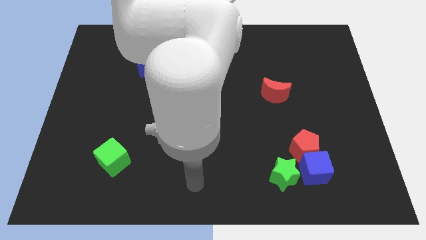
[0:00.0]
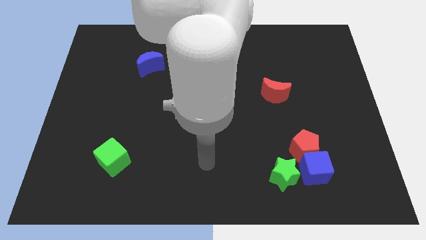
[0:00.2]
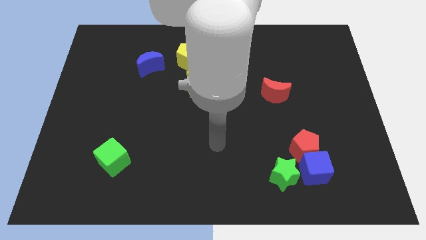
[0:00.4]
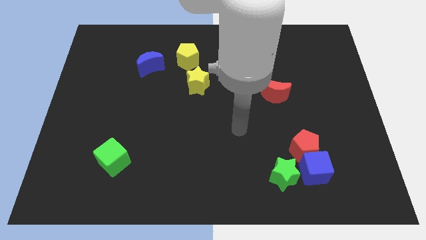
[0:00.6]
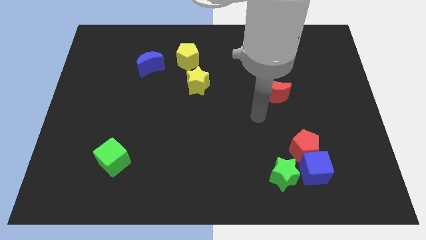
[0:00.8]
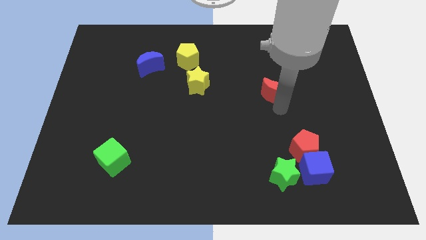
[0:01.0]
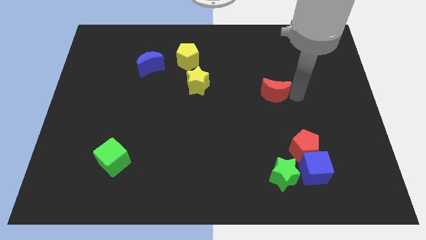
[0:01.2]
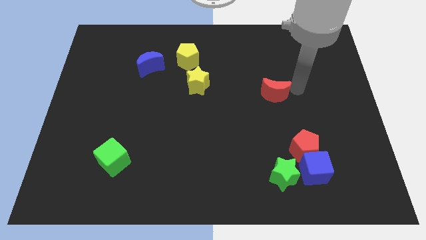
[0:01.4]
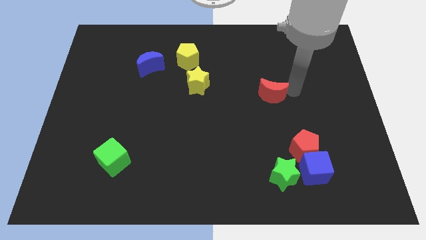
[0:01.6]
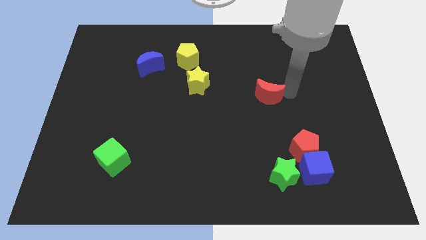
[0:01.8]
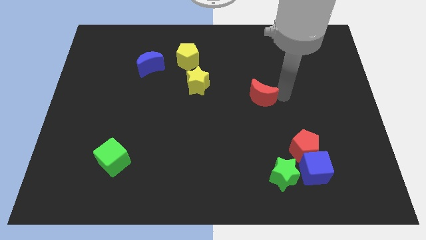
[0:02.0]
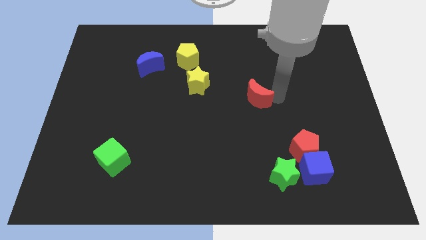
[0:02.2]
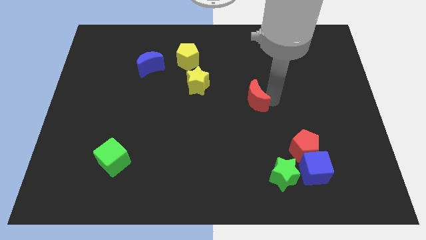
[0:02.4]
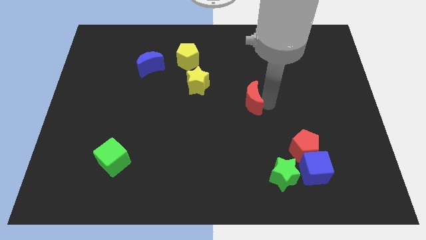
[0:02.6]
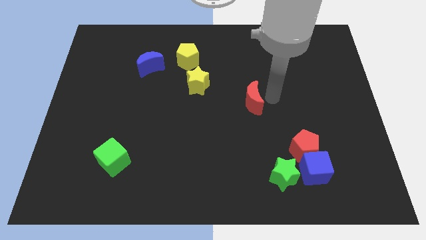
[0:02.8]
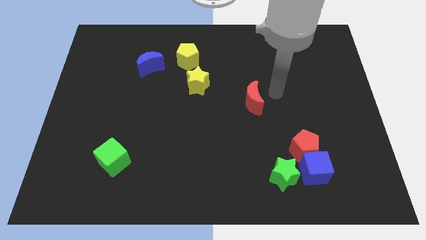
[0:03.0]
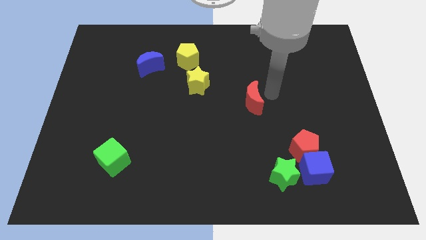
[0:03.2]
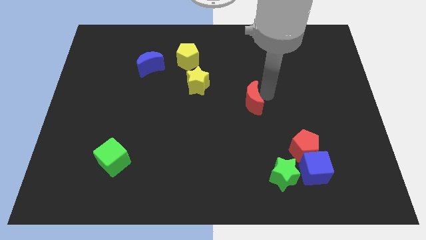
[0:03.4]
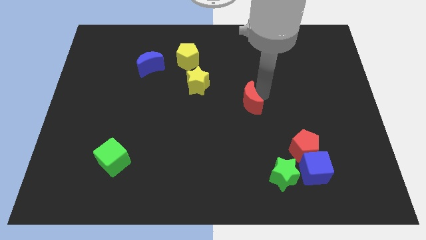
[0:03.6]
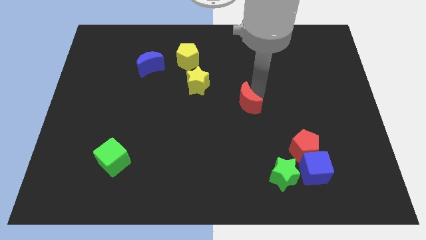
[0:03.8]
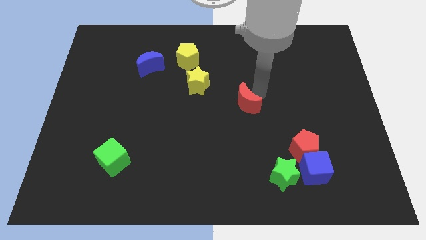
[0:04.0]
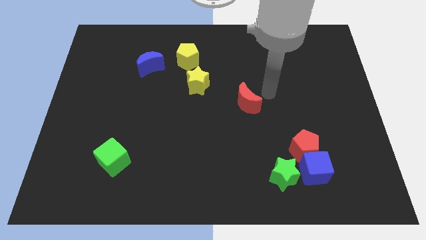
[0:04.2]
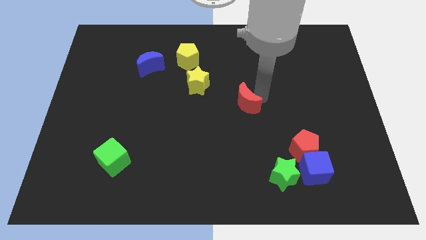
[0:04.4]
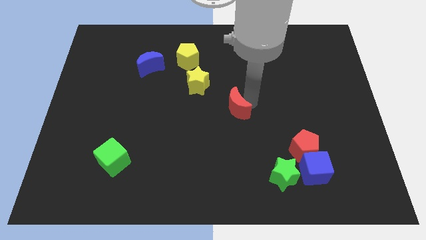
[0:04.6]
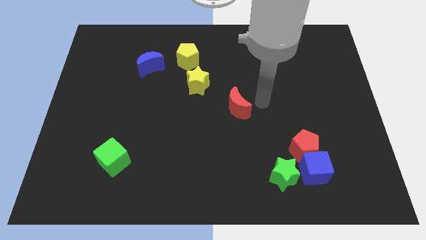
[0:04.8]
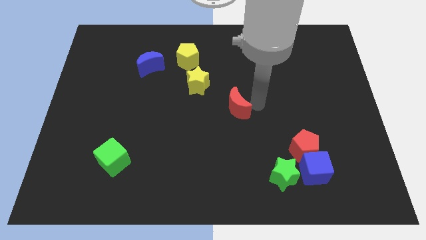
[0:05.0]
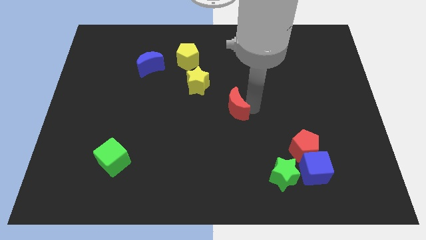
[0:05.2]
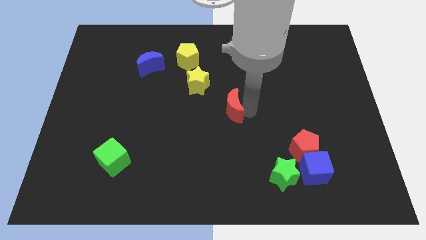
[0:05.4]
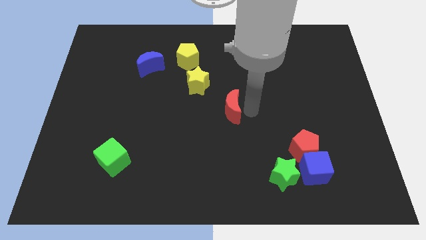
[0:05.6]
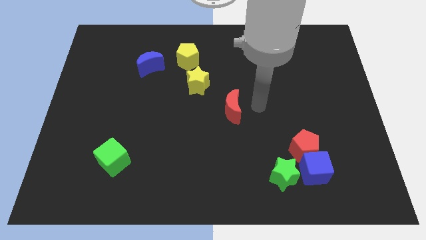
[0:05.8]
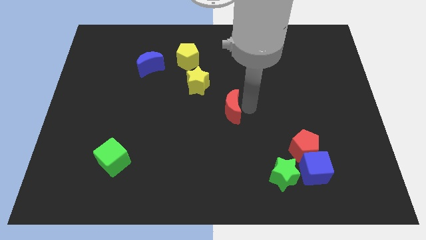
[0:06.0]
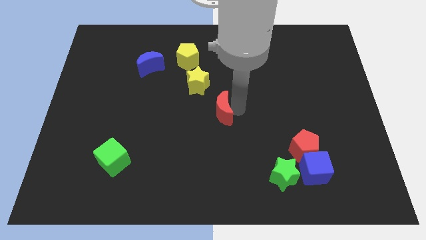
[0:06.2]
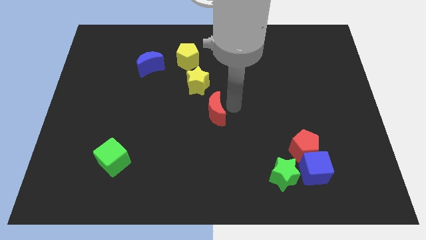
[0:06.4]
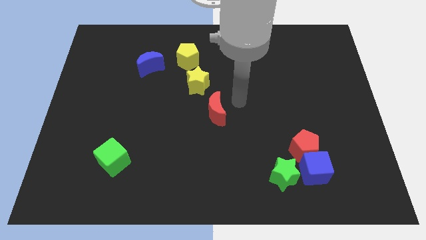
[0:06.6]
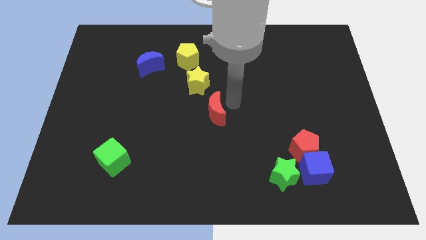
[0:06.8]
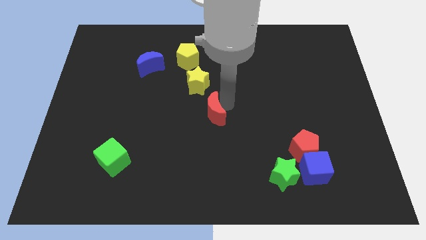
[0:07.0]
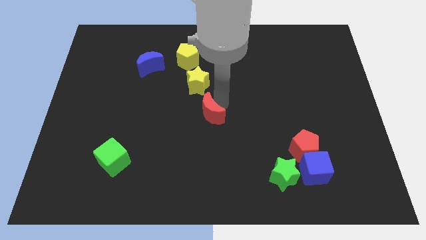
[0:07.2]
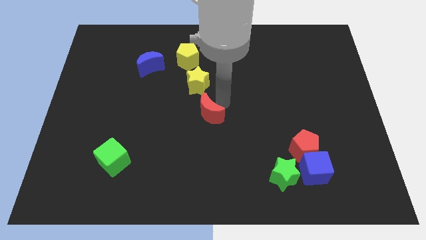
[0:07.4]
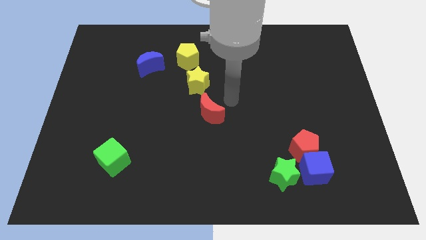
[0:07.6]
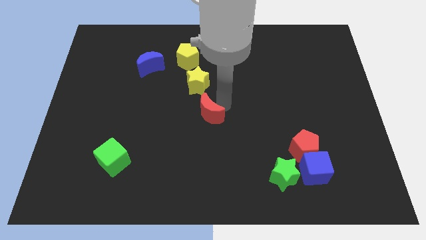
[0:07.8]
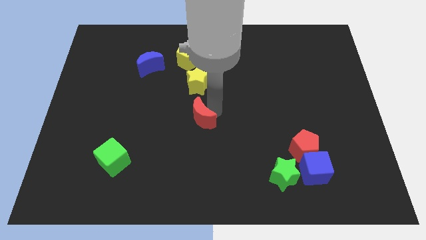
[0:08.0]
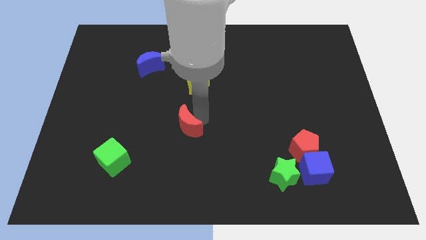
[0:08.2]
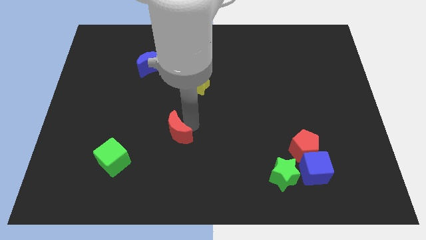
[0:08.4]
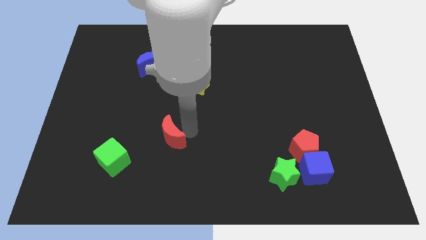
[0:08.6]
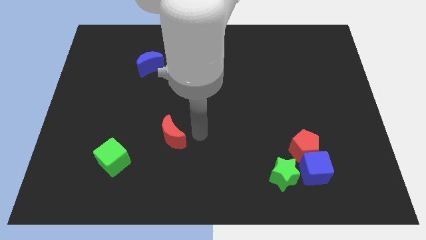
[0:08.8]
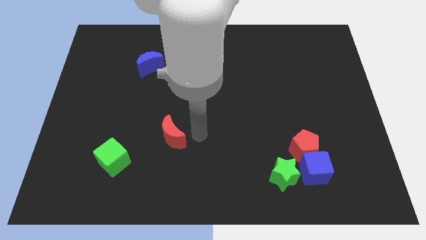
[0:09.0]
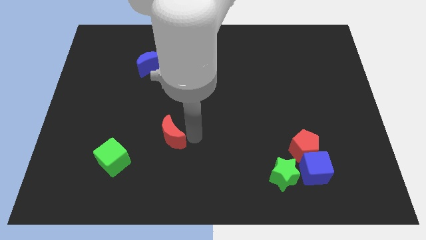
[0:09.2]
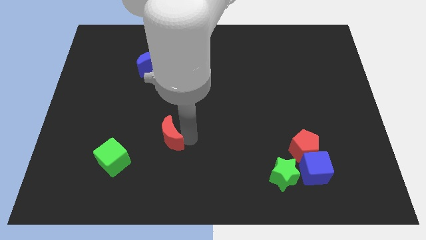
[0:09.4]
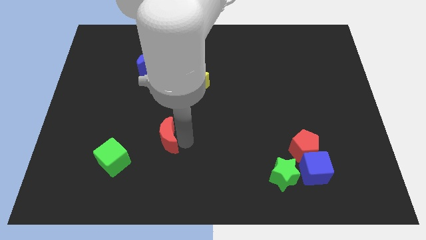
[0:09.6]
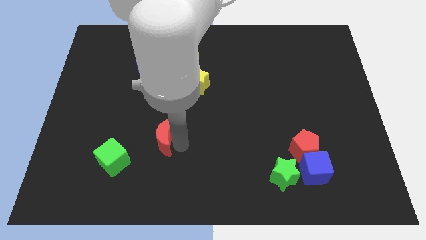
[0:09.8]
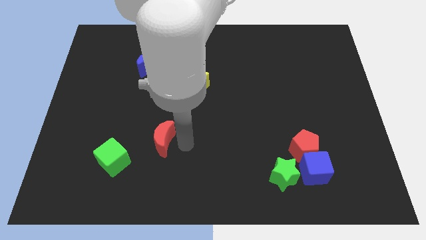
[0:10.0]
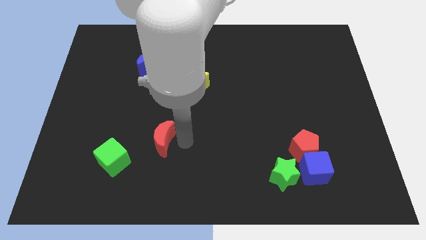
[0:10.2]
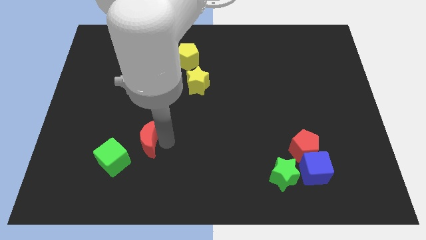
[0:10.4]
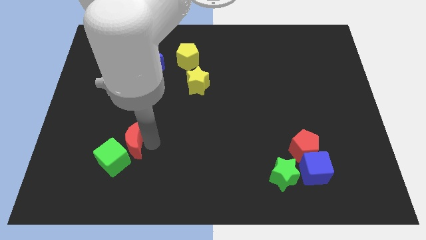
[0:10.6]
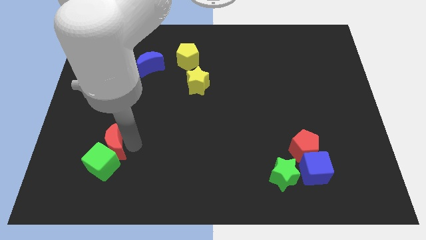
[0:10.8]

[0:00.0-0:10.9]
slide the red moon to the top left side of the green cube

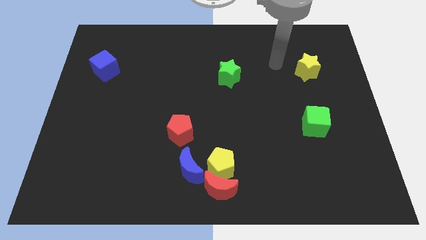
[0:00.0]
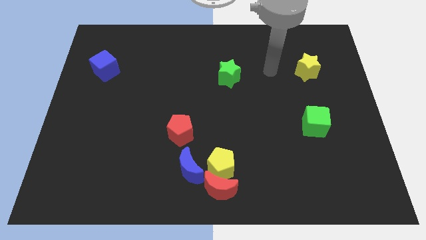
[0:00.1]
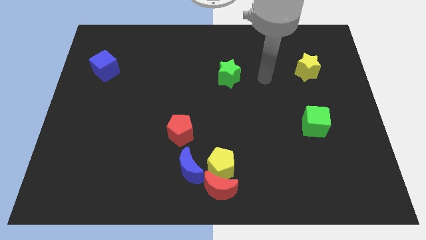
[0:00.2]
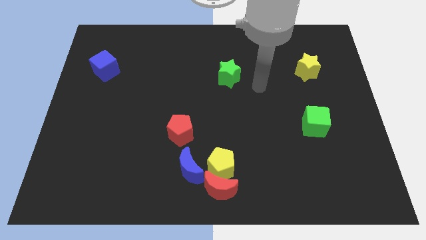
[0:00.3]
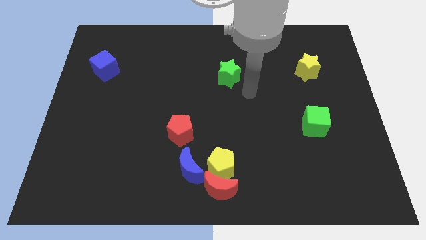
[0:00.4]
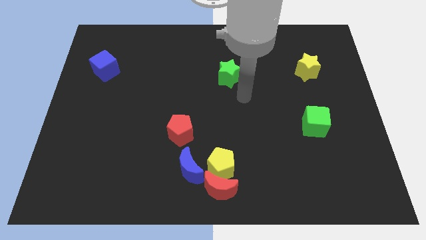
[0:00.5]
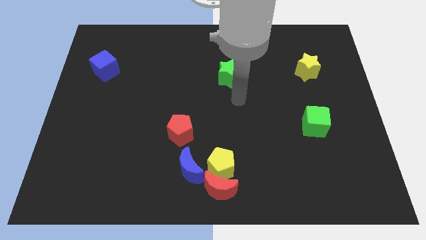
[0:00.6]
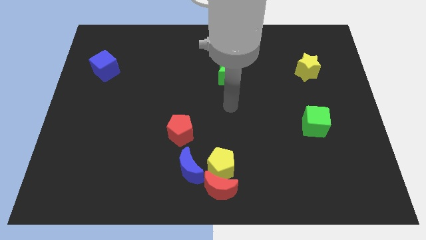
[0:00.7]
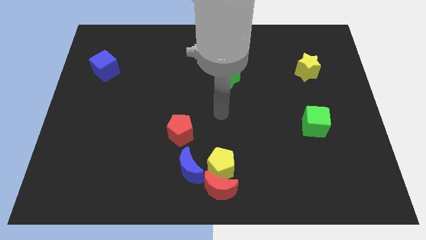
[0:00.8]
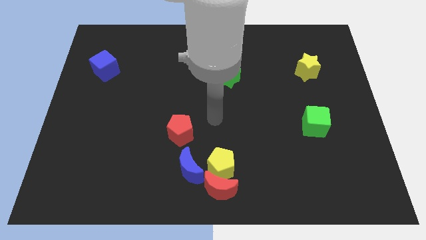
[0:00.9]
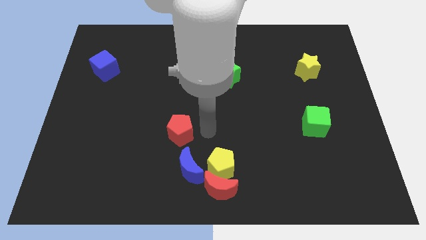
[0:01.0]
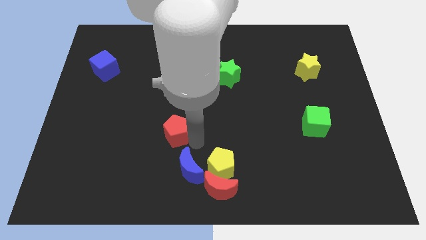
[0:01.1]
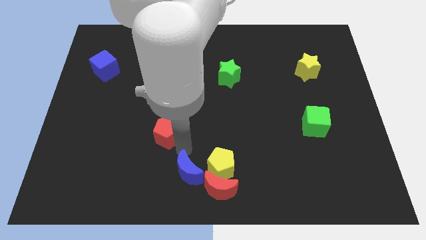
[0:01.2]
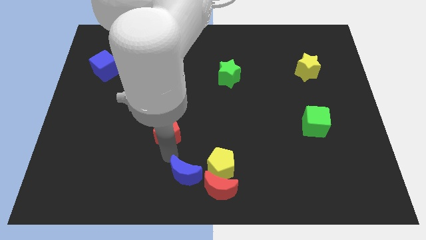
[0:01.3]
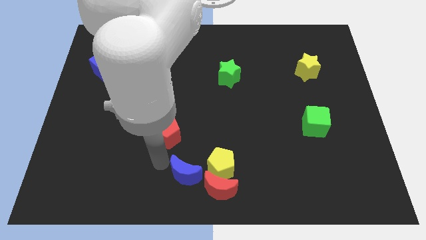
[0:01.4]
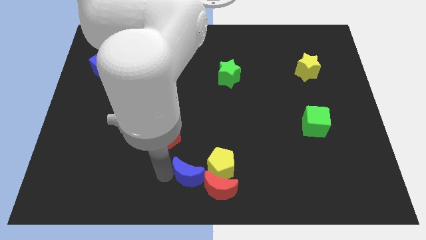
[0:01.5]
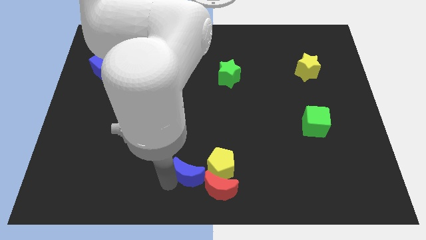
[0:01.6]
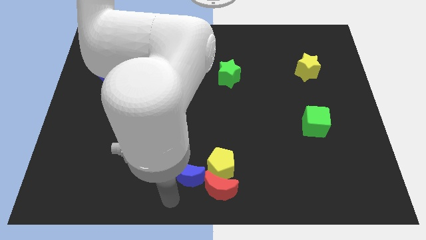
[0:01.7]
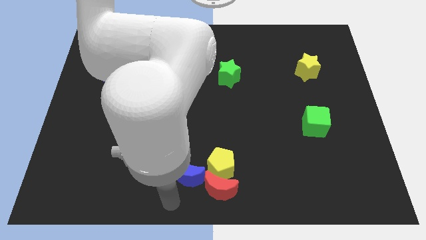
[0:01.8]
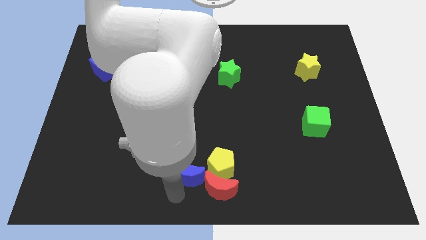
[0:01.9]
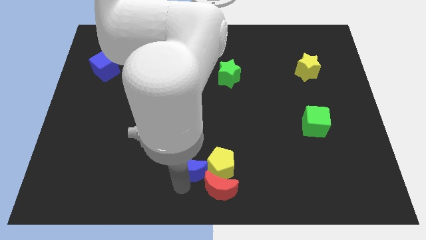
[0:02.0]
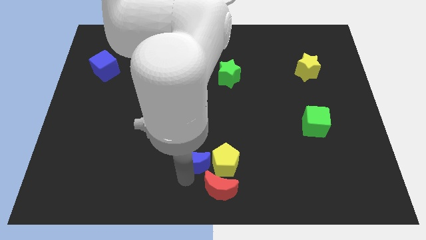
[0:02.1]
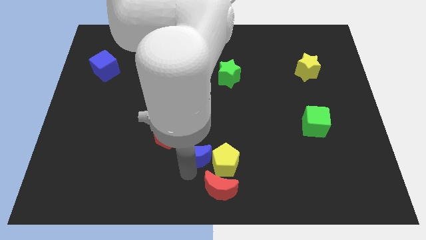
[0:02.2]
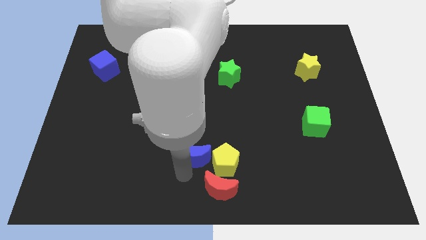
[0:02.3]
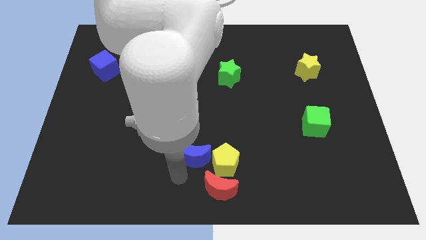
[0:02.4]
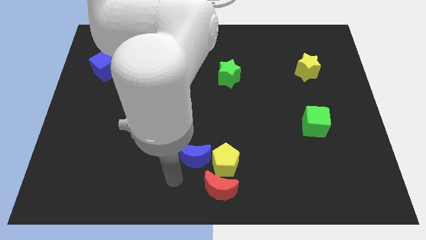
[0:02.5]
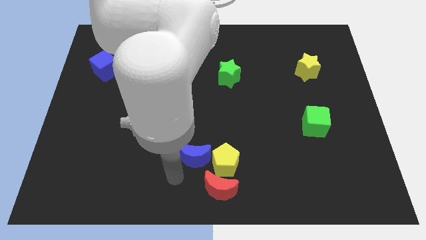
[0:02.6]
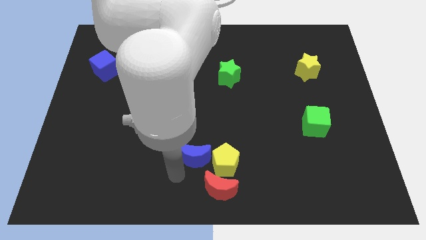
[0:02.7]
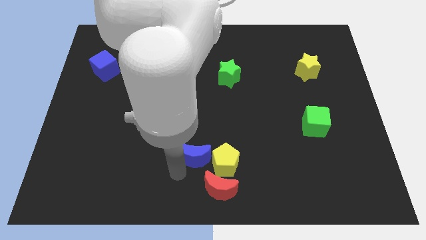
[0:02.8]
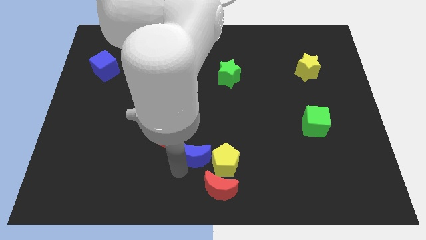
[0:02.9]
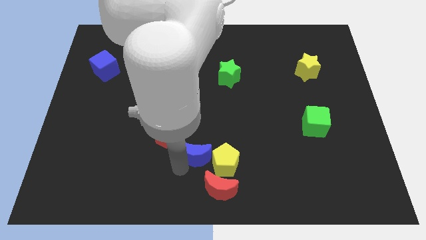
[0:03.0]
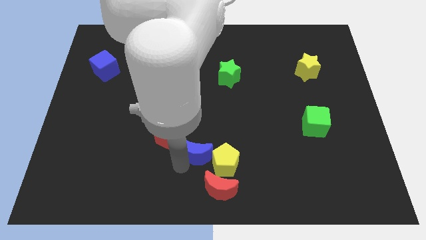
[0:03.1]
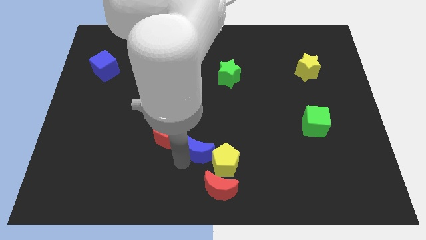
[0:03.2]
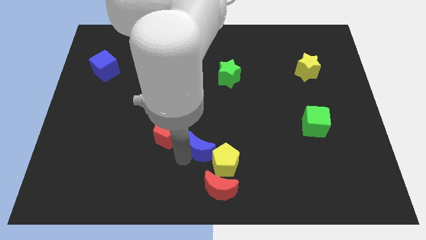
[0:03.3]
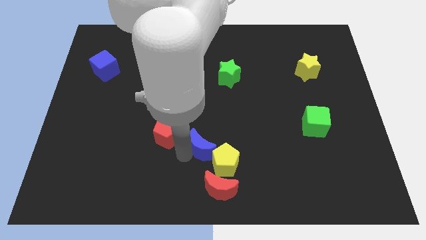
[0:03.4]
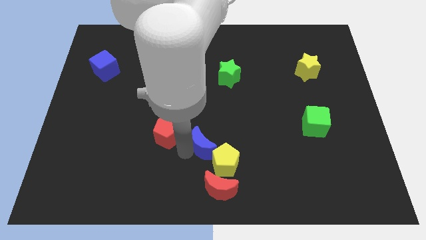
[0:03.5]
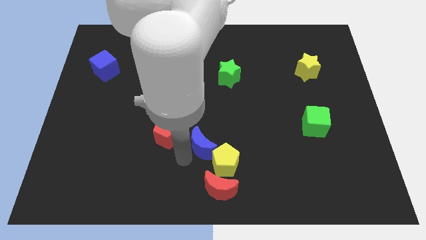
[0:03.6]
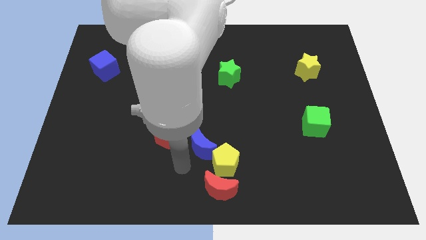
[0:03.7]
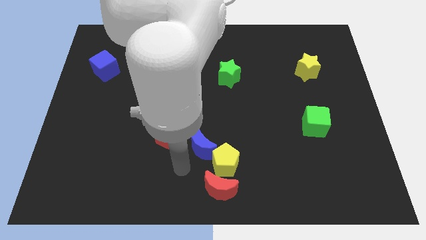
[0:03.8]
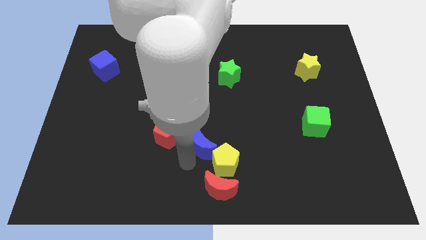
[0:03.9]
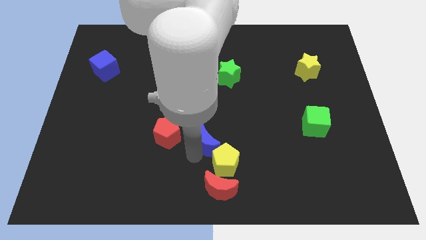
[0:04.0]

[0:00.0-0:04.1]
push the blue moon to the top side of the yellow pentagon
